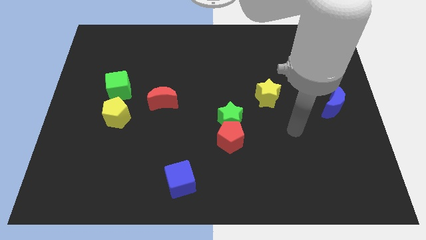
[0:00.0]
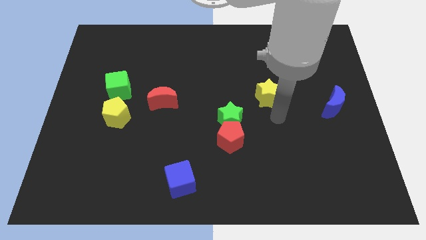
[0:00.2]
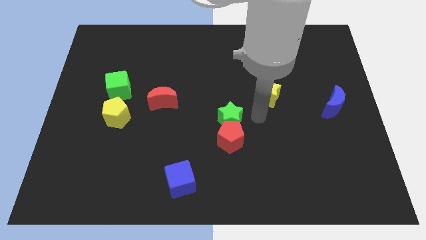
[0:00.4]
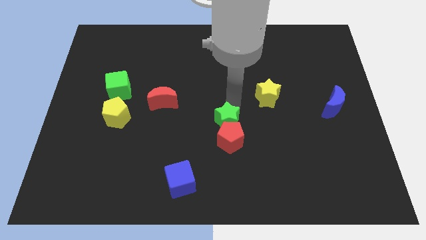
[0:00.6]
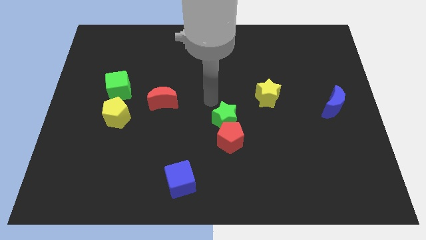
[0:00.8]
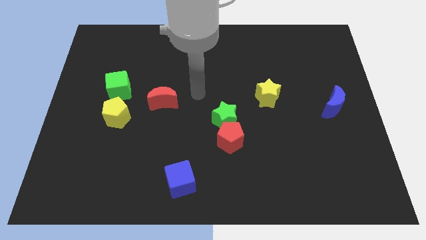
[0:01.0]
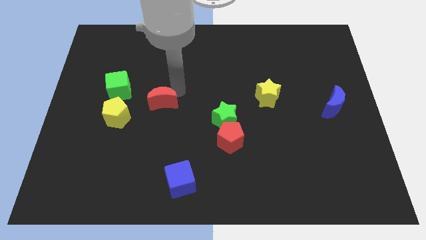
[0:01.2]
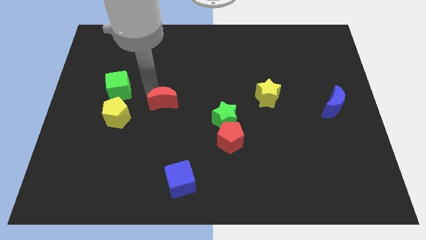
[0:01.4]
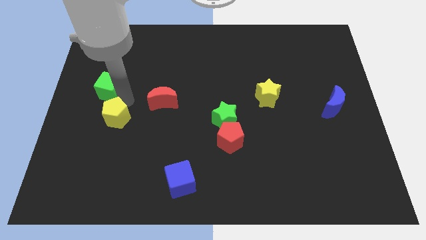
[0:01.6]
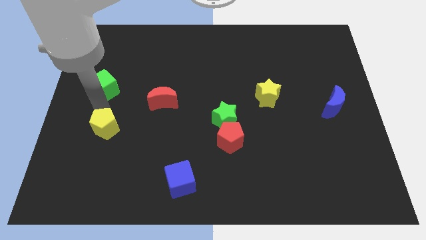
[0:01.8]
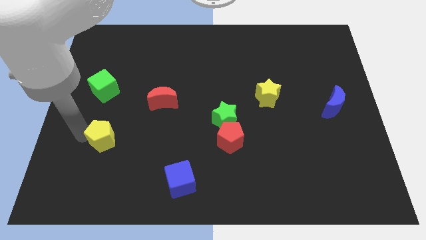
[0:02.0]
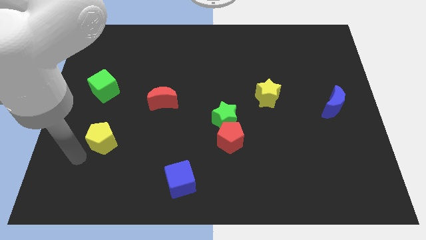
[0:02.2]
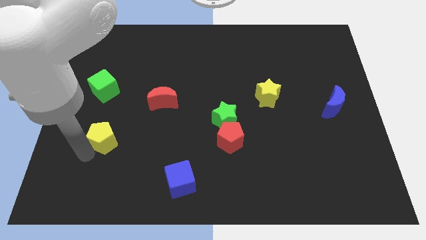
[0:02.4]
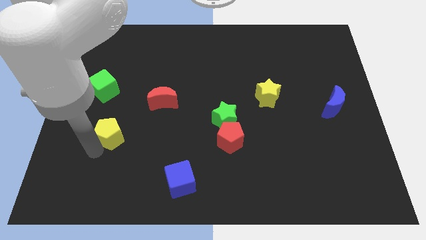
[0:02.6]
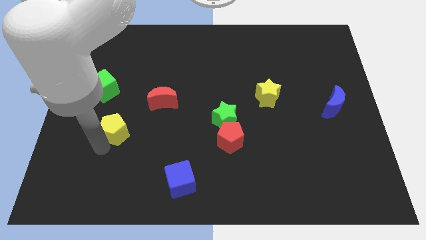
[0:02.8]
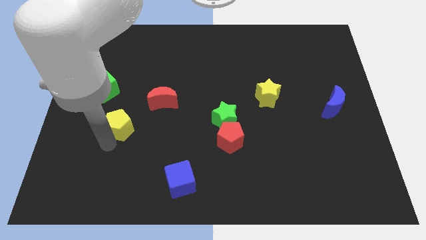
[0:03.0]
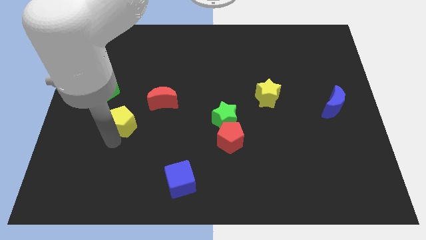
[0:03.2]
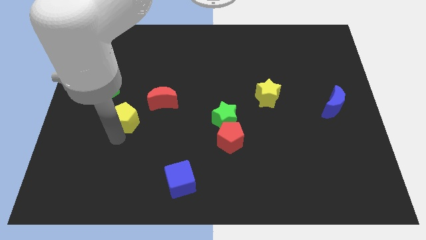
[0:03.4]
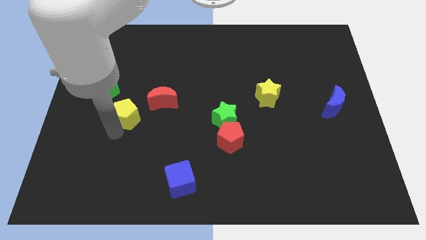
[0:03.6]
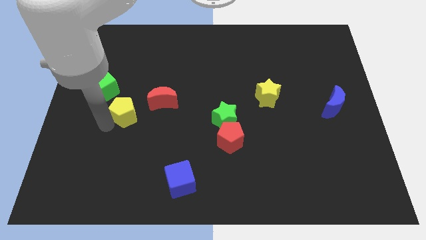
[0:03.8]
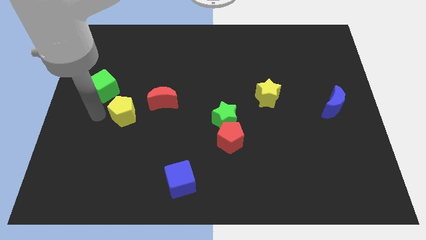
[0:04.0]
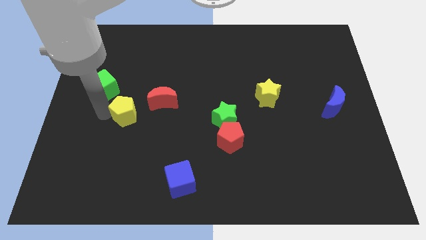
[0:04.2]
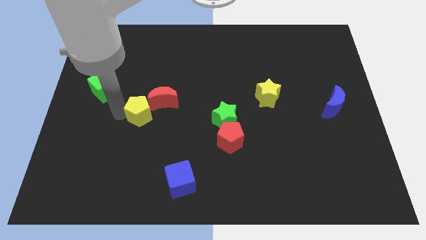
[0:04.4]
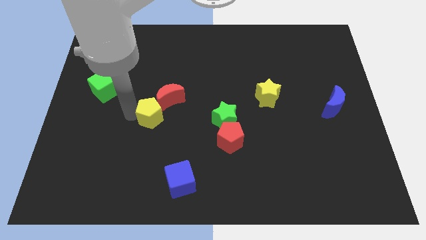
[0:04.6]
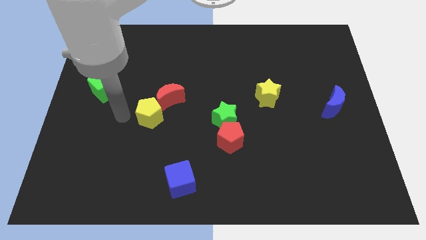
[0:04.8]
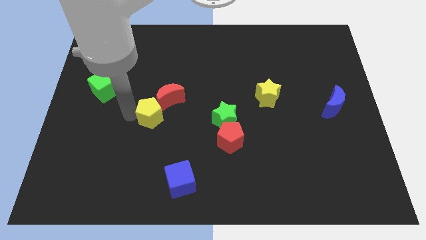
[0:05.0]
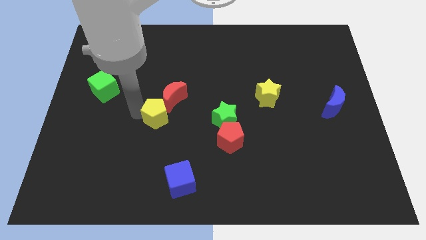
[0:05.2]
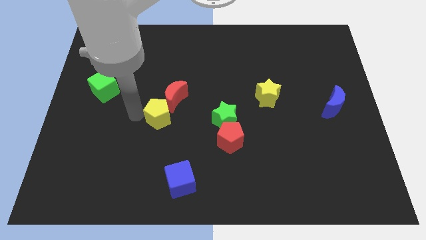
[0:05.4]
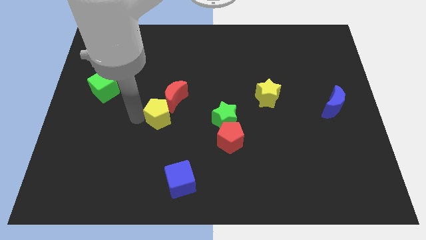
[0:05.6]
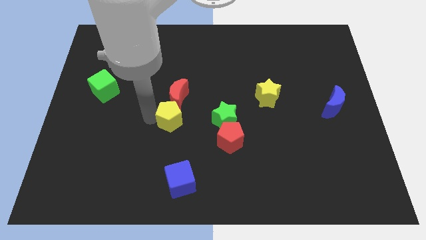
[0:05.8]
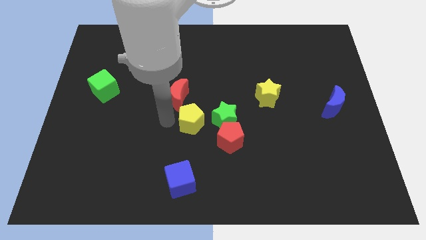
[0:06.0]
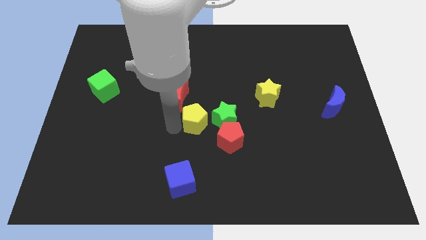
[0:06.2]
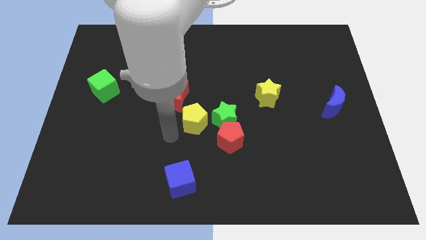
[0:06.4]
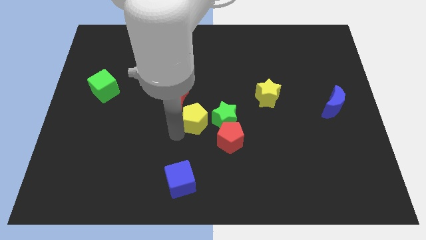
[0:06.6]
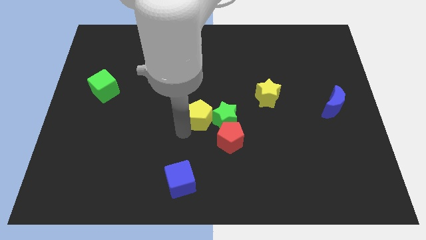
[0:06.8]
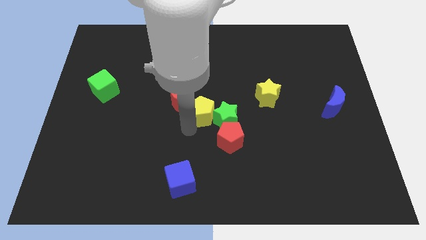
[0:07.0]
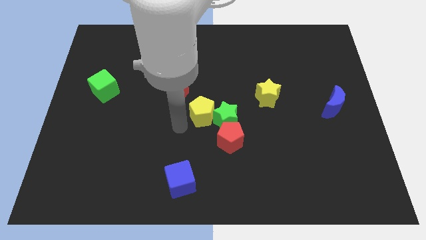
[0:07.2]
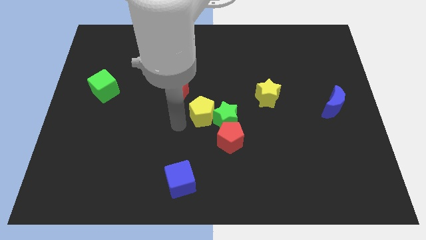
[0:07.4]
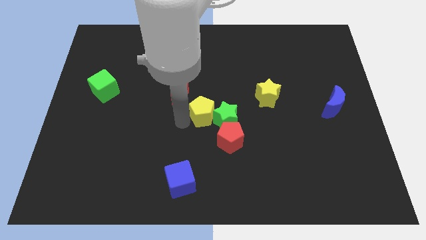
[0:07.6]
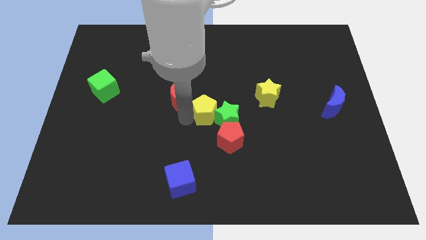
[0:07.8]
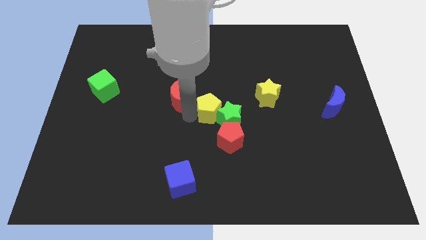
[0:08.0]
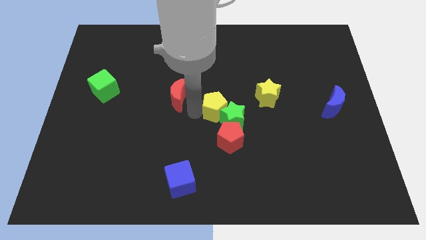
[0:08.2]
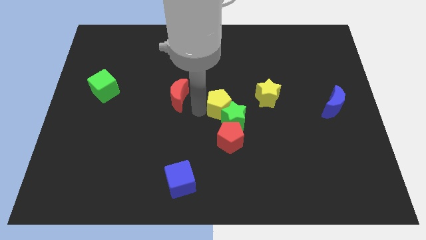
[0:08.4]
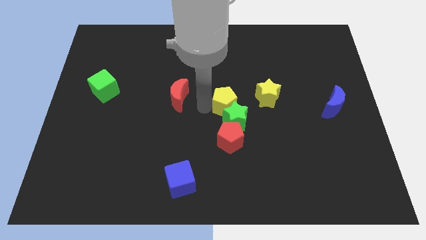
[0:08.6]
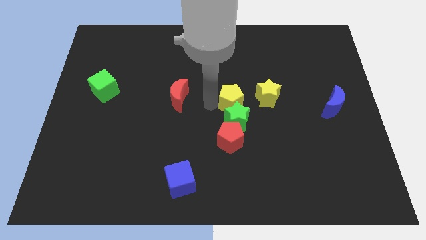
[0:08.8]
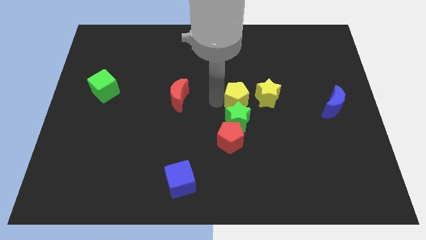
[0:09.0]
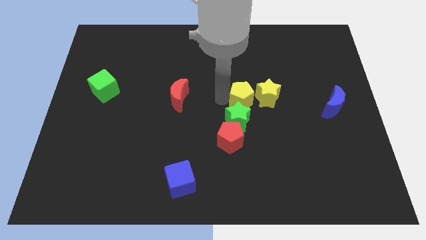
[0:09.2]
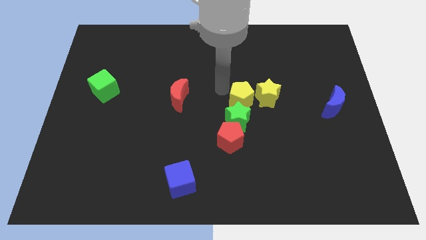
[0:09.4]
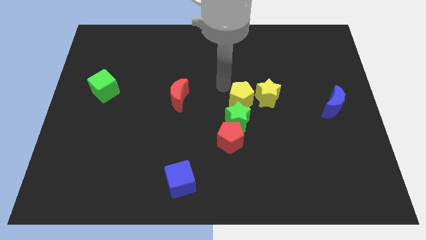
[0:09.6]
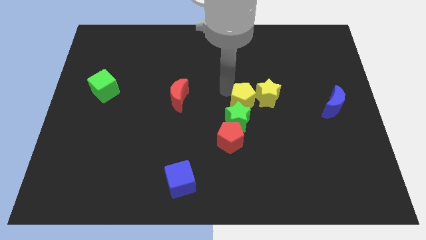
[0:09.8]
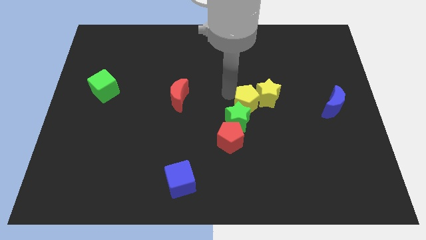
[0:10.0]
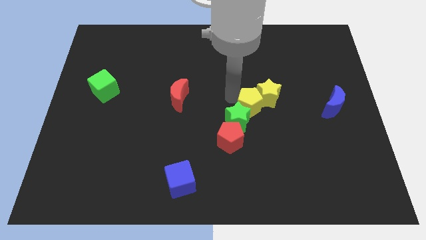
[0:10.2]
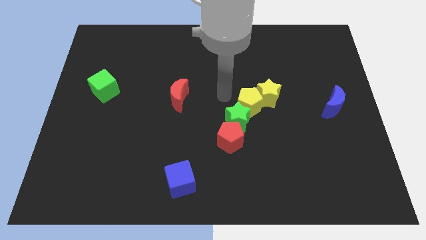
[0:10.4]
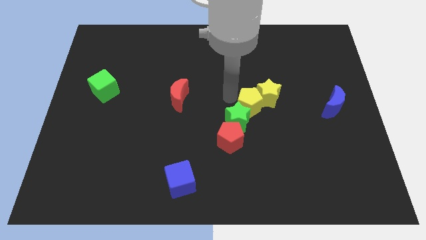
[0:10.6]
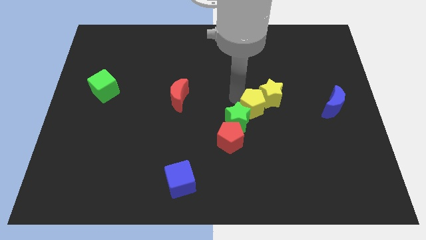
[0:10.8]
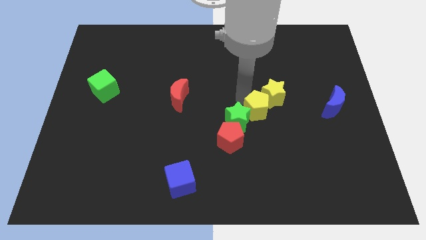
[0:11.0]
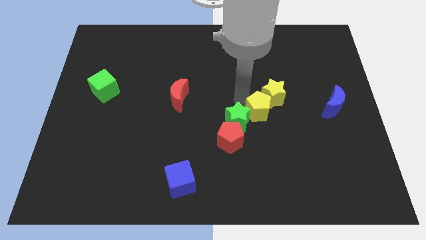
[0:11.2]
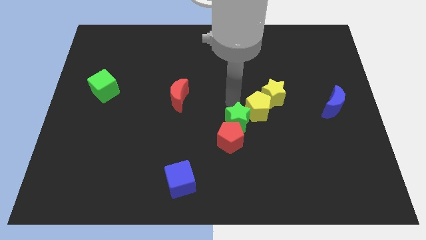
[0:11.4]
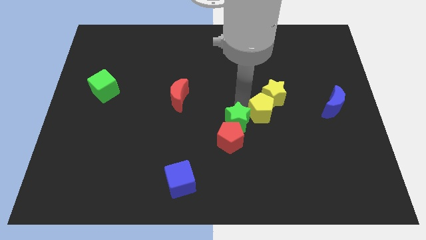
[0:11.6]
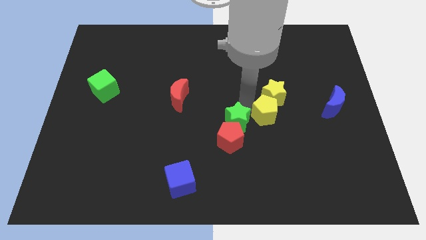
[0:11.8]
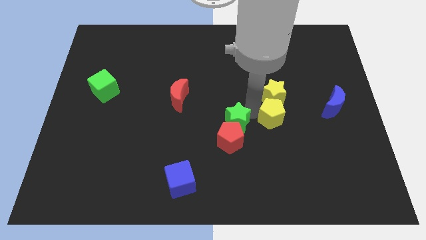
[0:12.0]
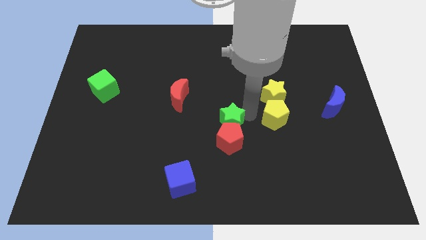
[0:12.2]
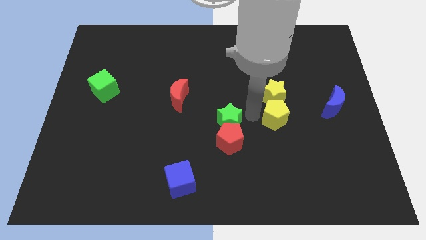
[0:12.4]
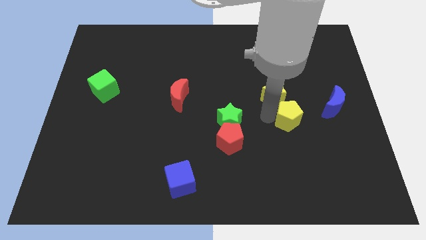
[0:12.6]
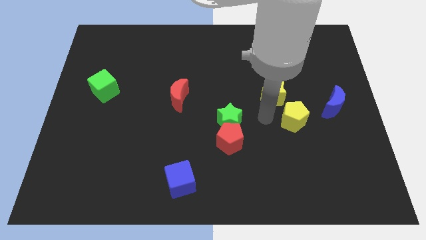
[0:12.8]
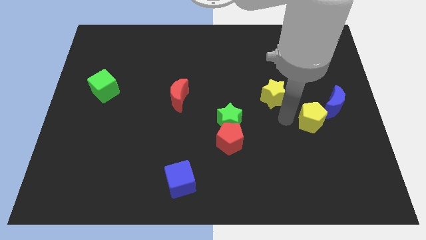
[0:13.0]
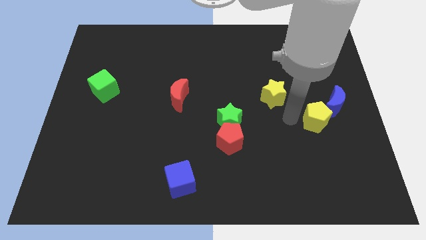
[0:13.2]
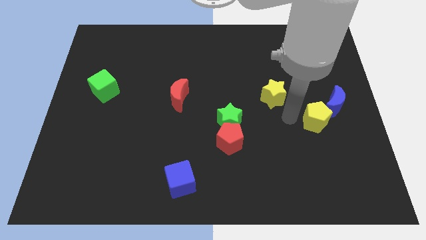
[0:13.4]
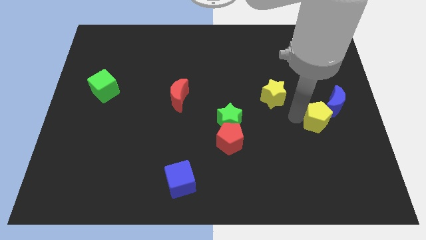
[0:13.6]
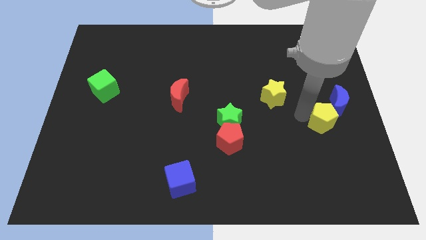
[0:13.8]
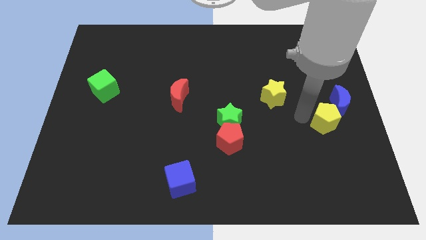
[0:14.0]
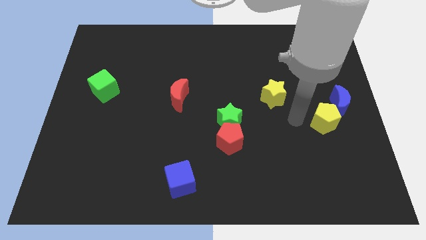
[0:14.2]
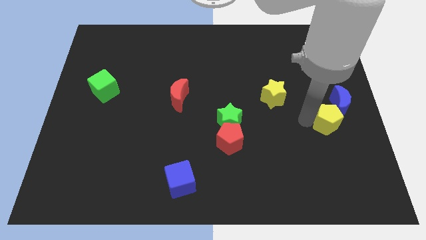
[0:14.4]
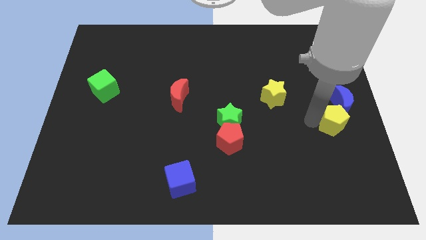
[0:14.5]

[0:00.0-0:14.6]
slide the yellow pentagon to the right side of the board
